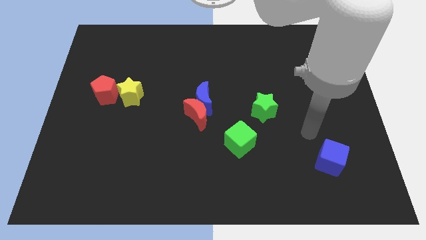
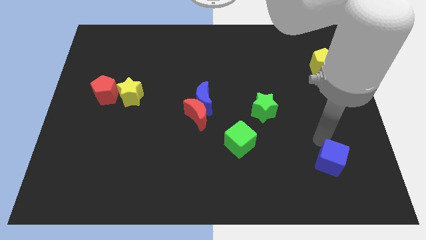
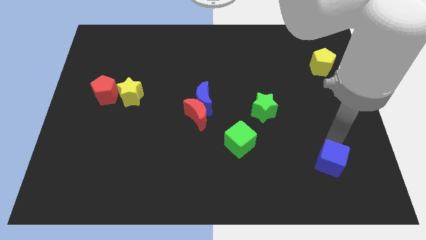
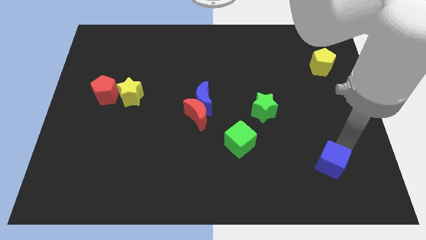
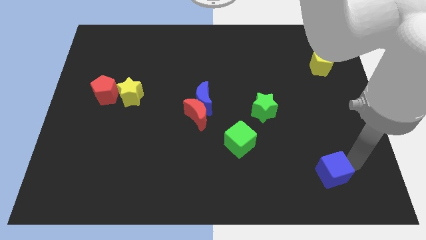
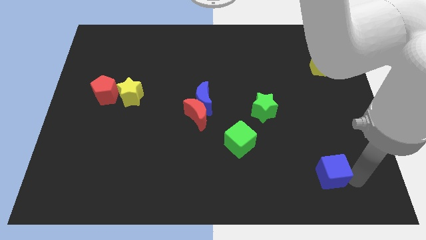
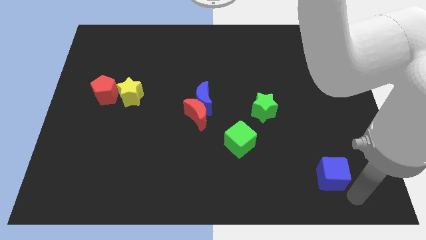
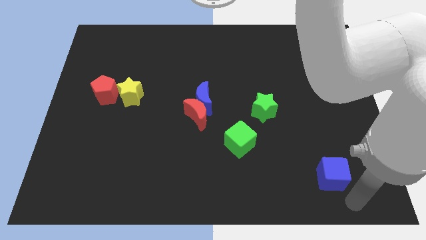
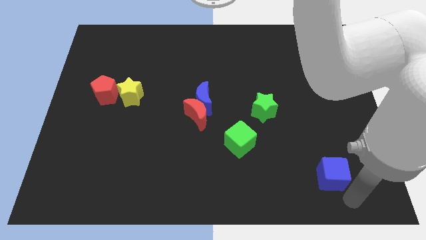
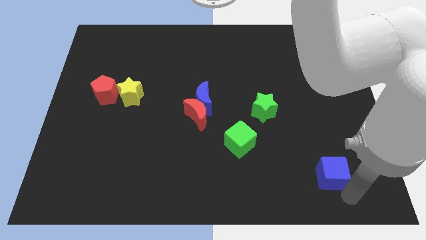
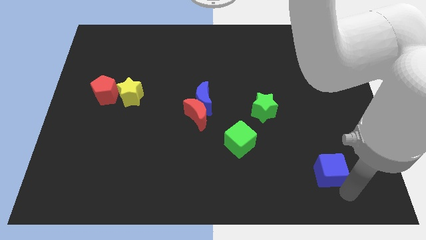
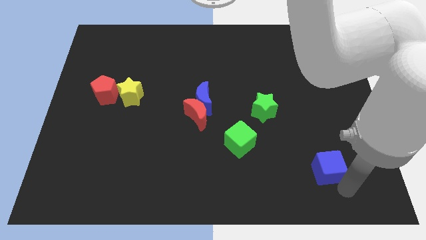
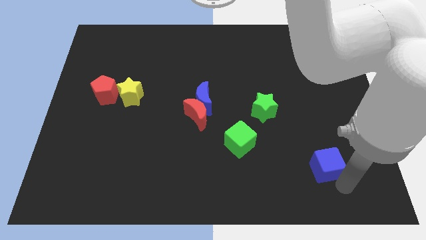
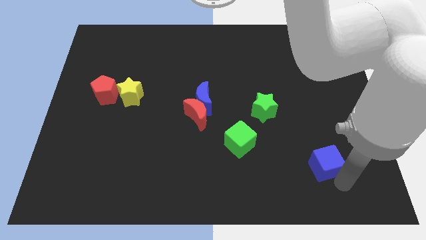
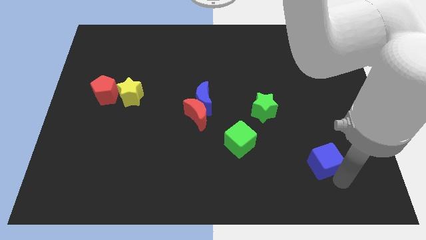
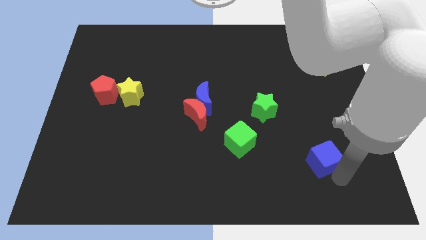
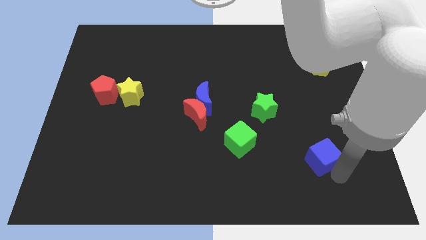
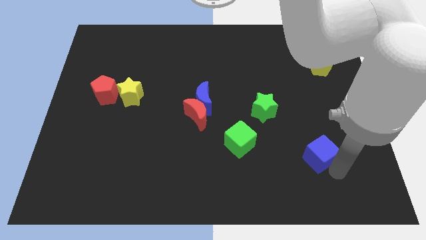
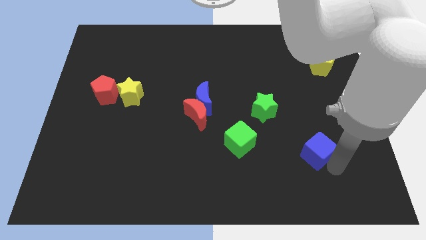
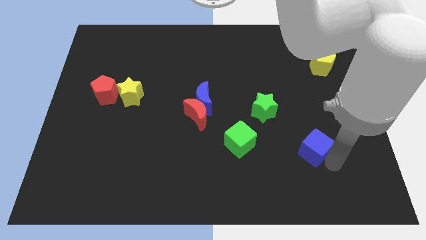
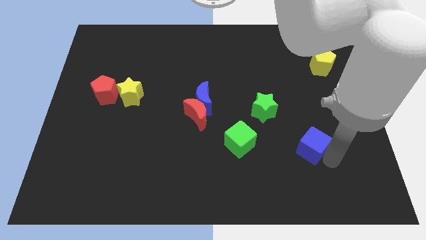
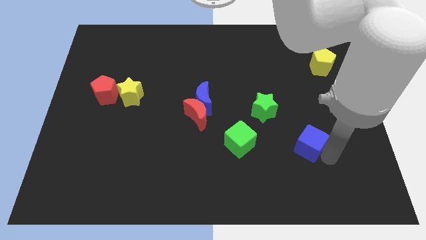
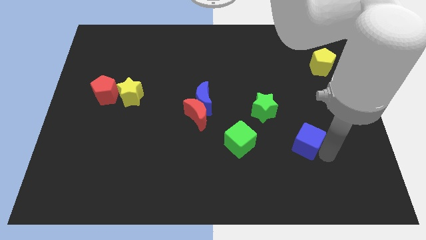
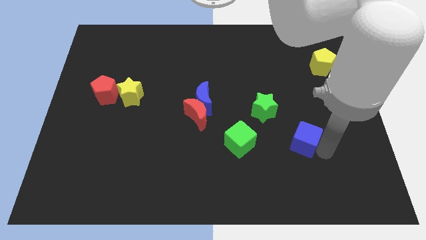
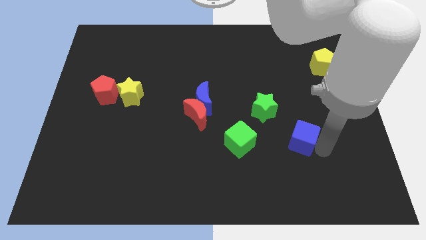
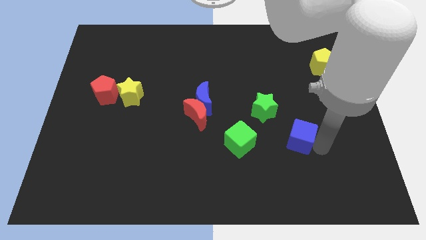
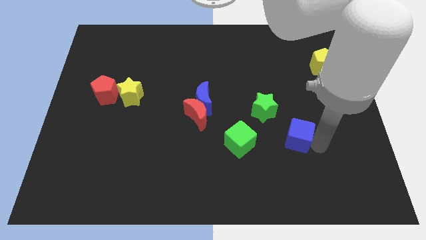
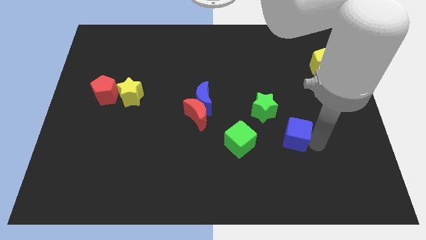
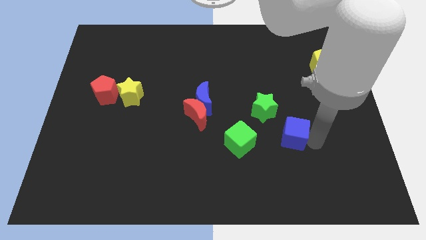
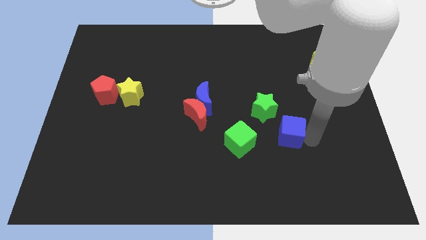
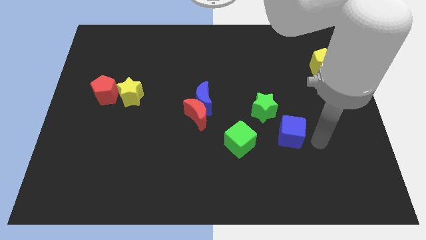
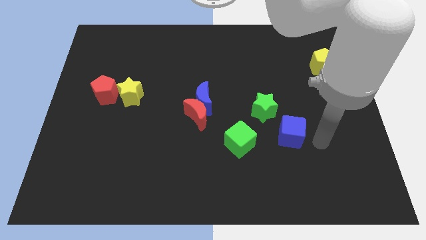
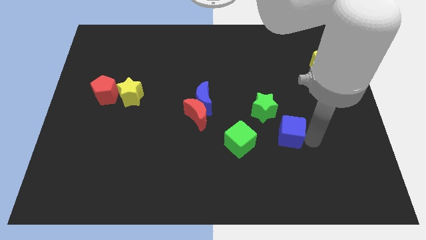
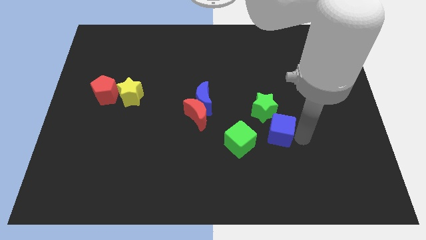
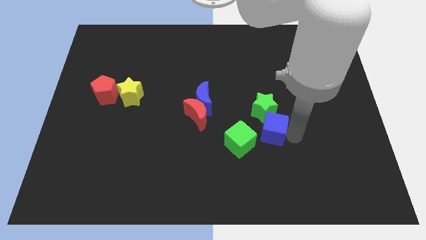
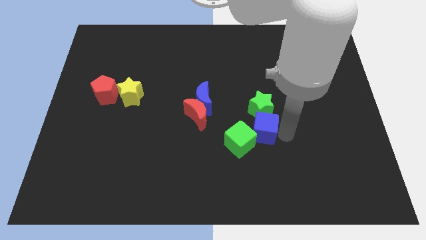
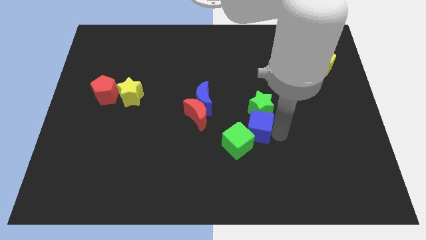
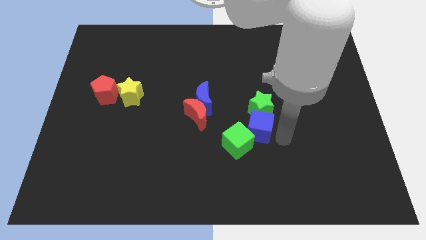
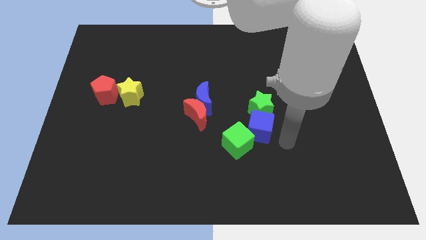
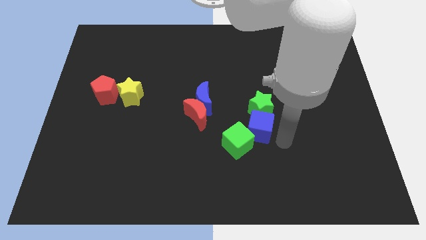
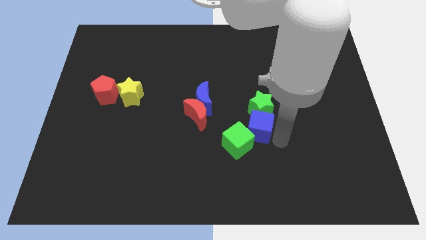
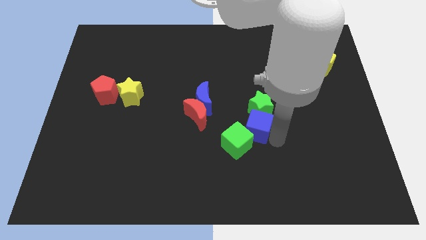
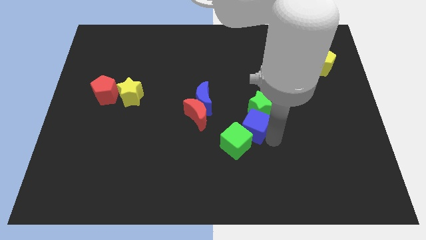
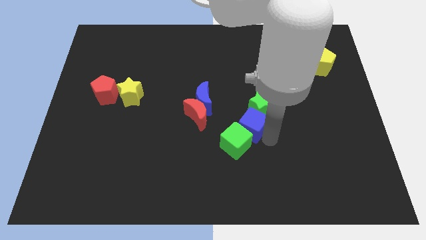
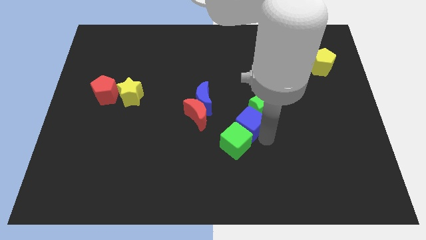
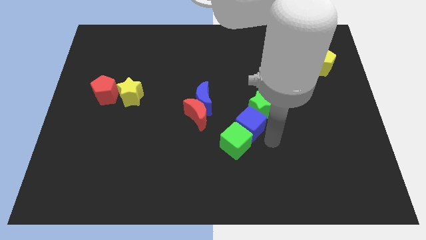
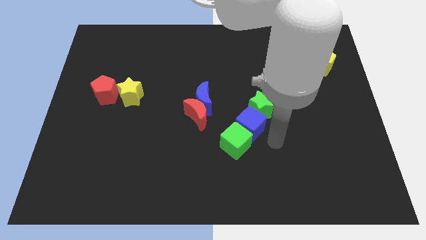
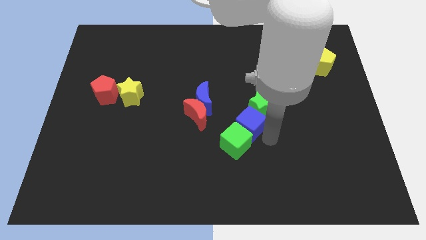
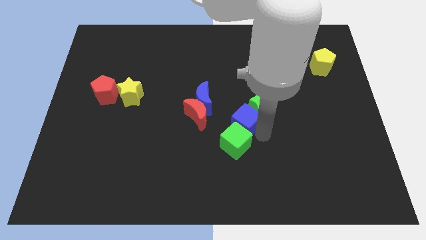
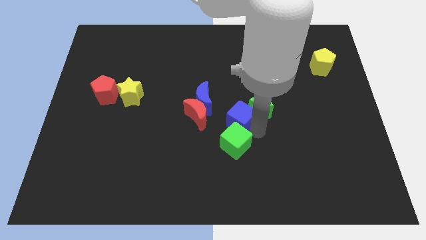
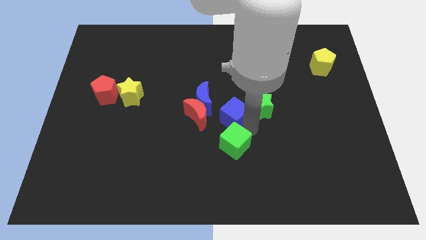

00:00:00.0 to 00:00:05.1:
put the blue cube right of the blue moon

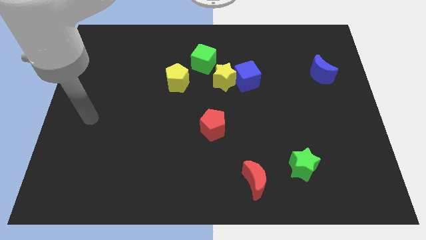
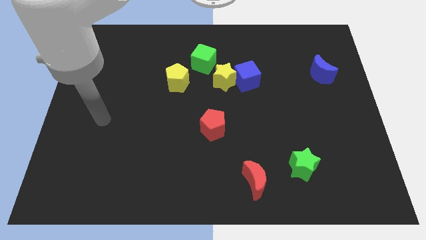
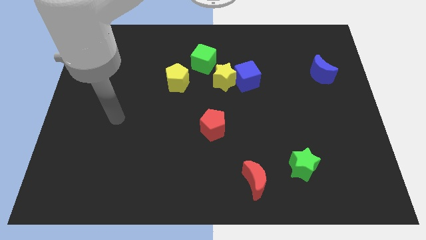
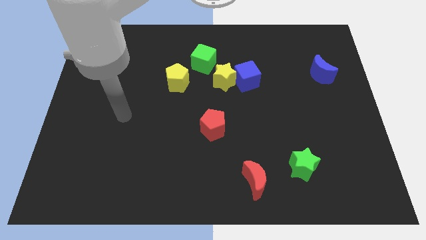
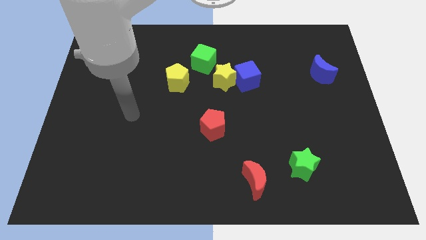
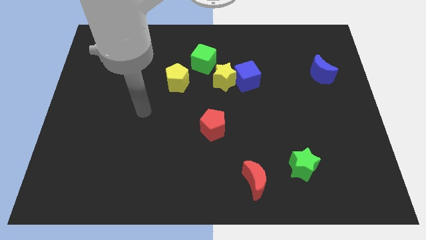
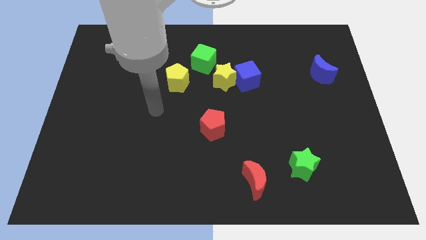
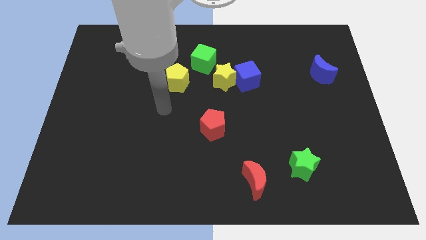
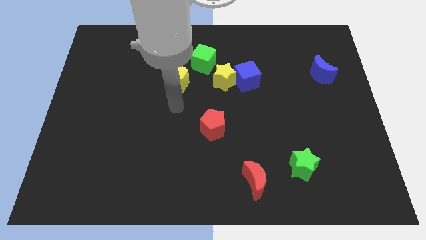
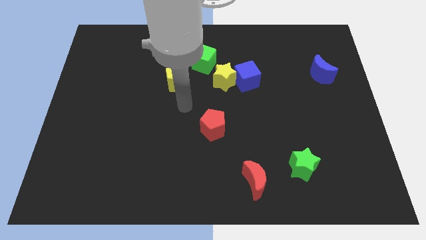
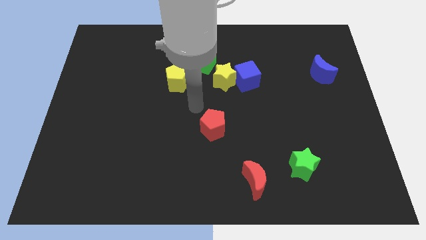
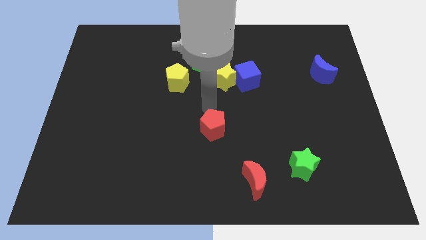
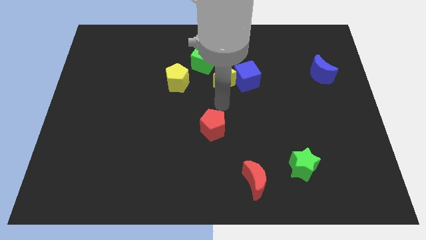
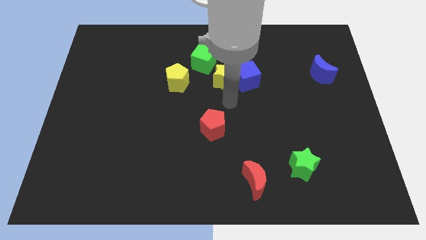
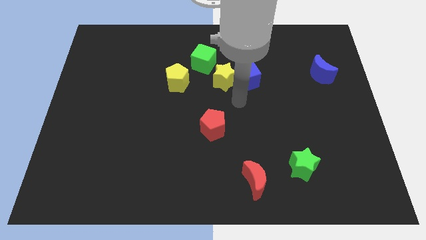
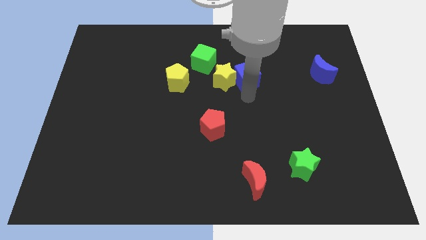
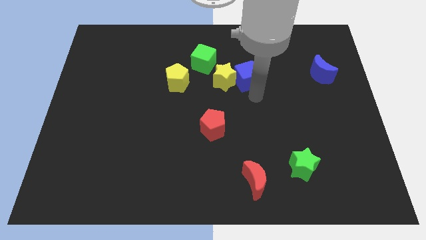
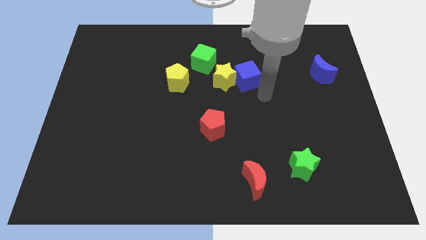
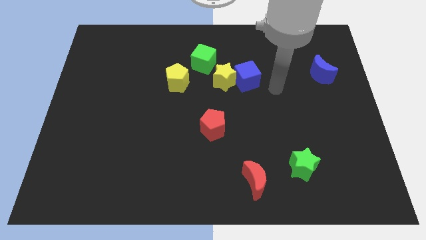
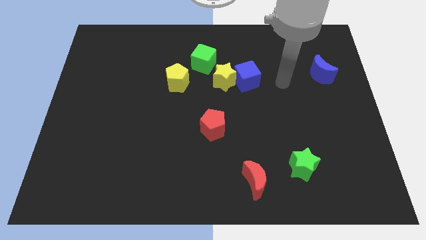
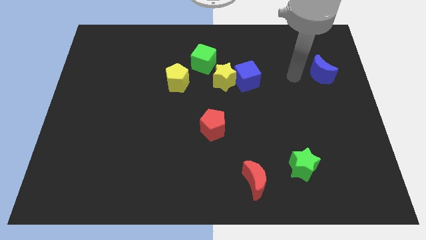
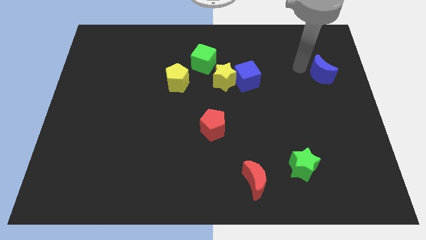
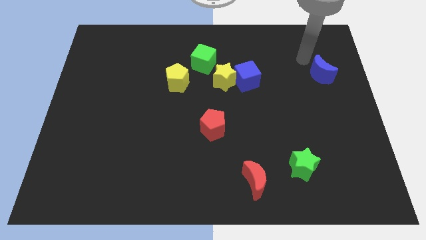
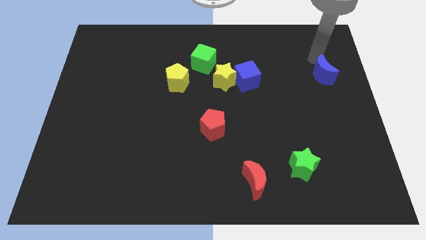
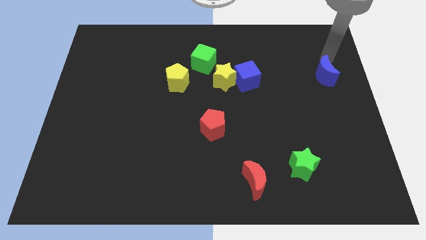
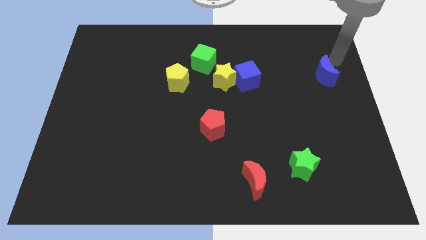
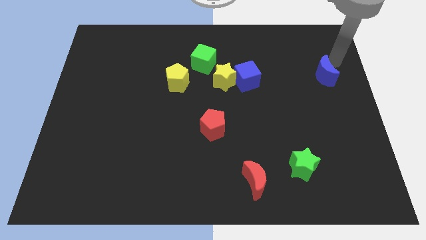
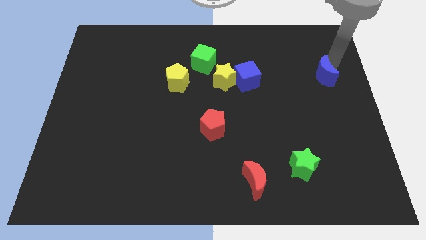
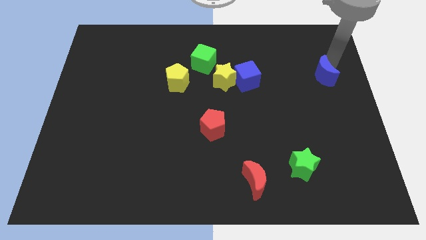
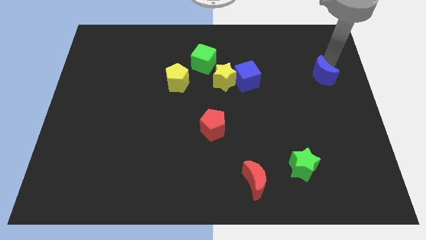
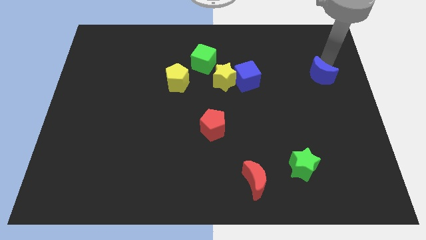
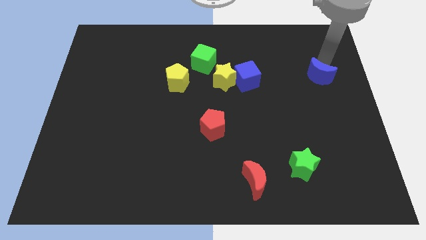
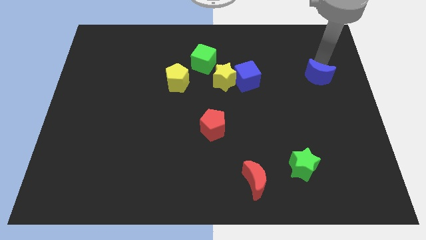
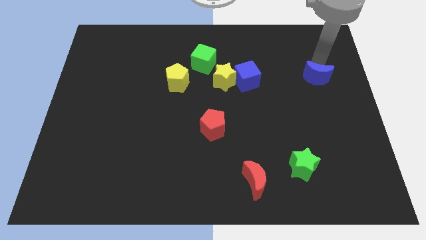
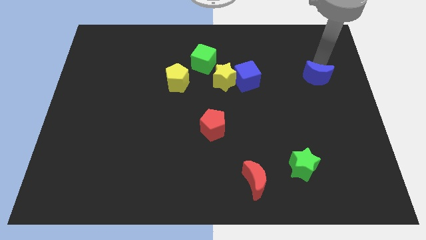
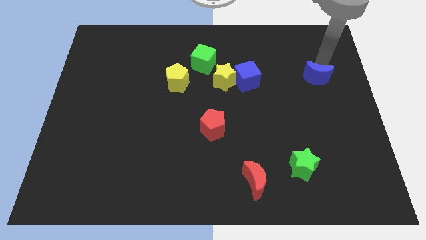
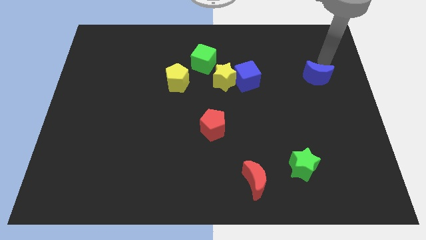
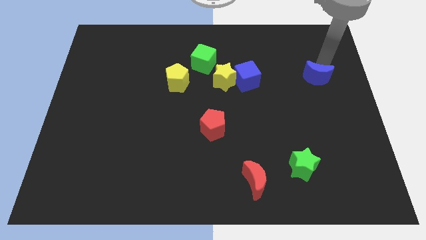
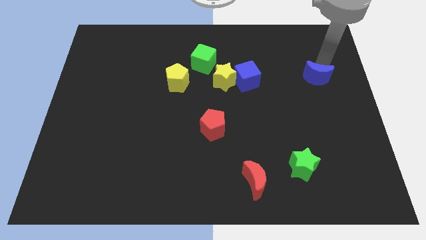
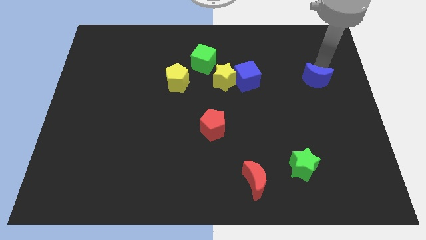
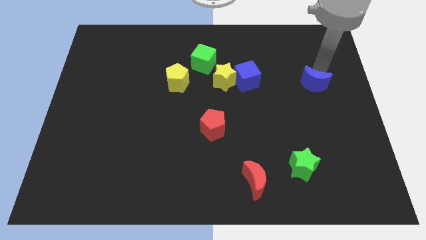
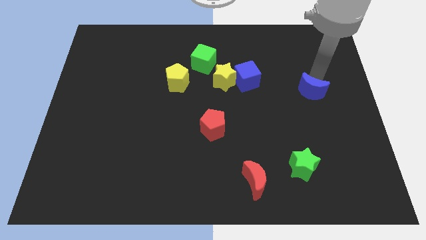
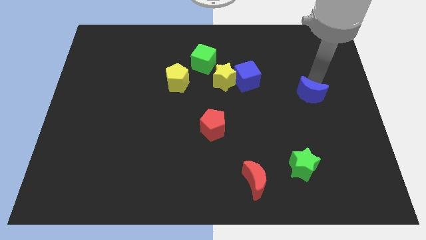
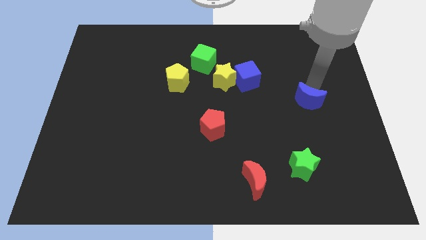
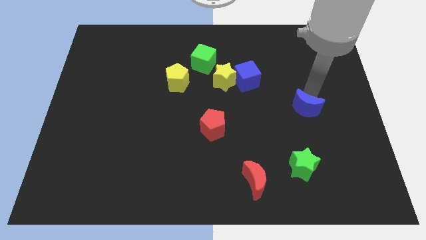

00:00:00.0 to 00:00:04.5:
put the blue moon to the top of the green star
